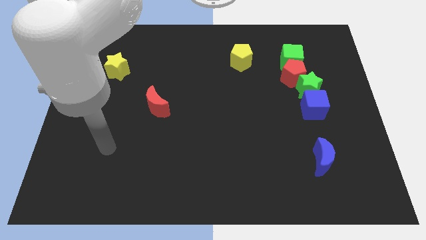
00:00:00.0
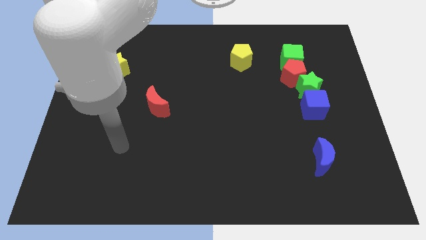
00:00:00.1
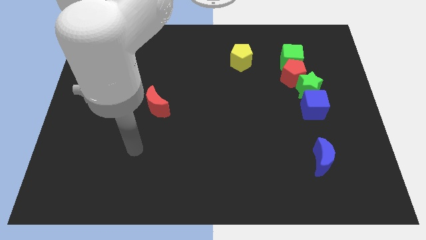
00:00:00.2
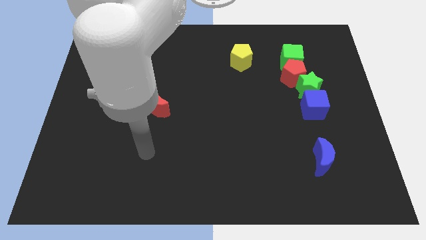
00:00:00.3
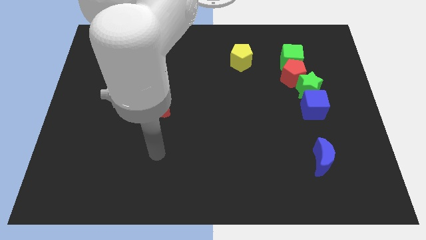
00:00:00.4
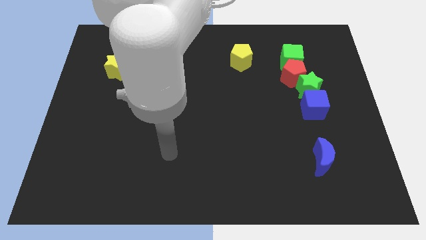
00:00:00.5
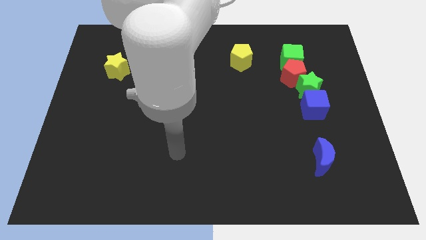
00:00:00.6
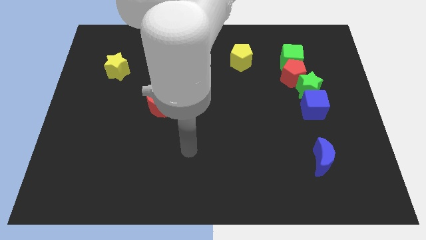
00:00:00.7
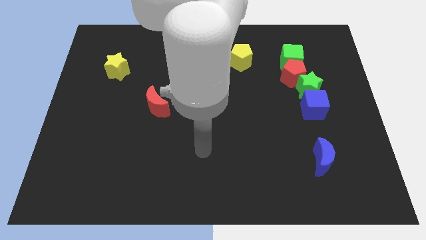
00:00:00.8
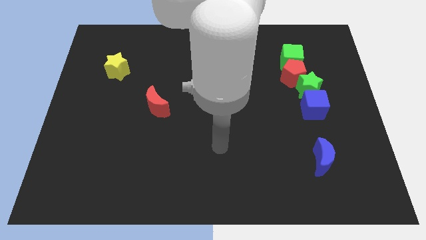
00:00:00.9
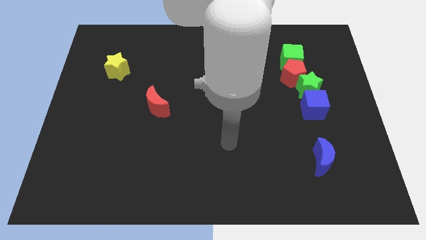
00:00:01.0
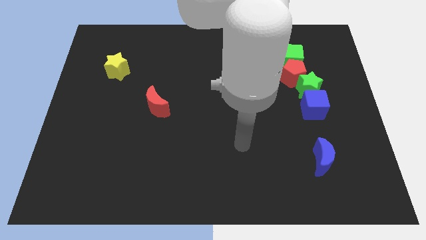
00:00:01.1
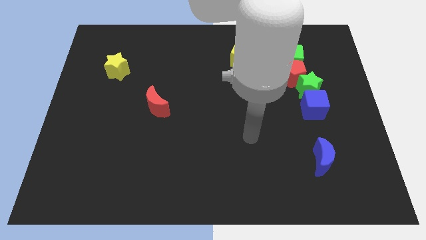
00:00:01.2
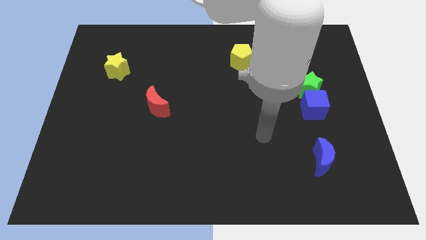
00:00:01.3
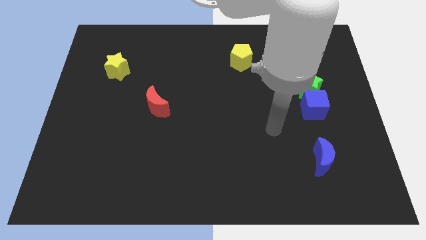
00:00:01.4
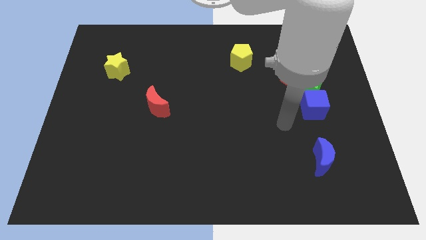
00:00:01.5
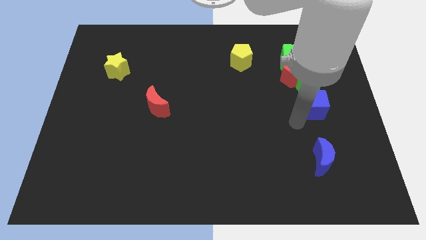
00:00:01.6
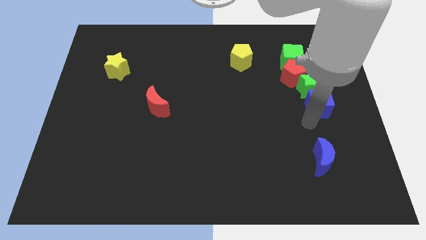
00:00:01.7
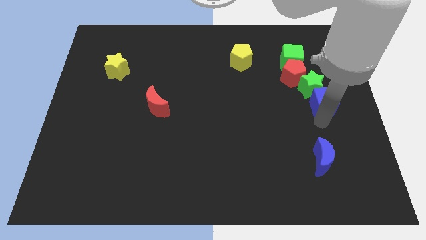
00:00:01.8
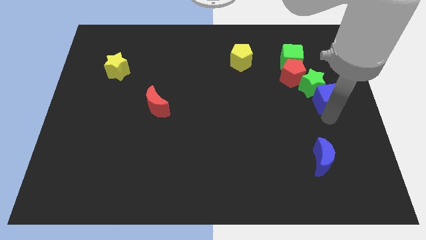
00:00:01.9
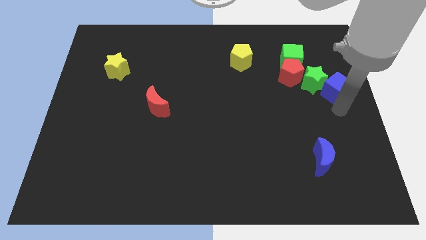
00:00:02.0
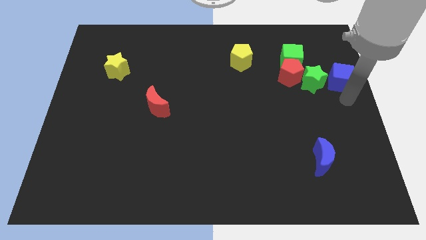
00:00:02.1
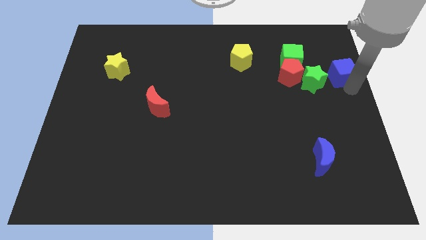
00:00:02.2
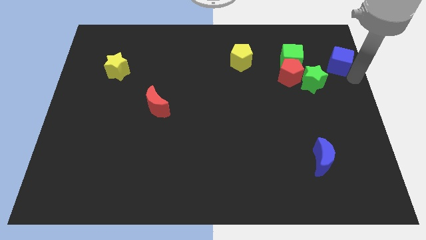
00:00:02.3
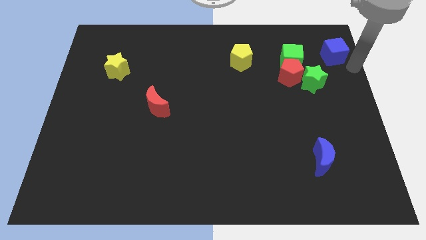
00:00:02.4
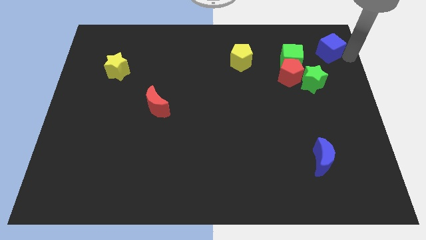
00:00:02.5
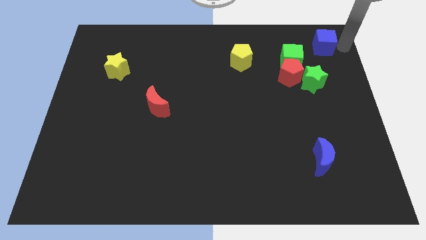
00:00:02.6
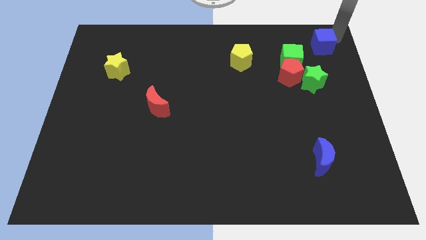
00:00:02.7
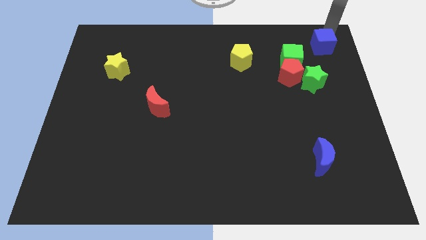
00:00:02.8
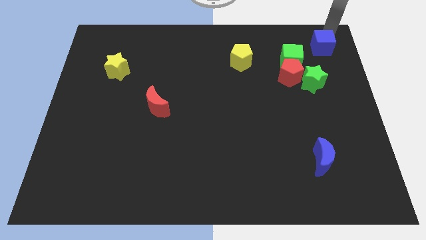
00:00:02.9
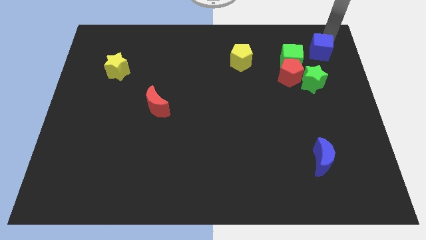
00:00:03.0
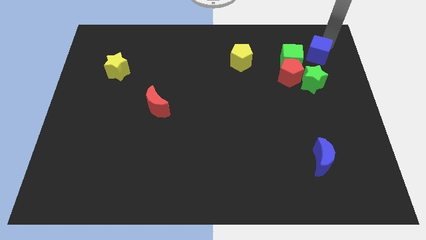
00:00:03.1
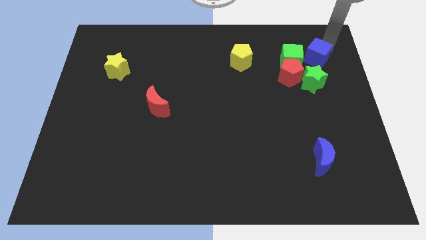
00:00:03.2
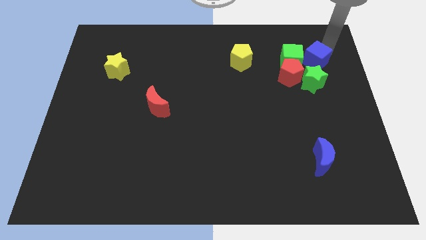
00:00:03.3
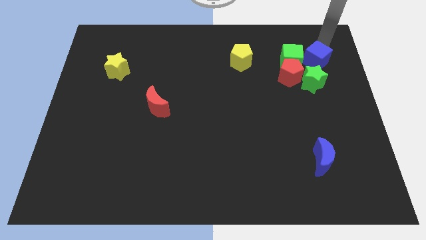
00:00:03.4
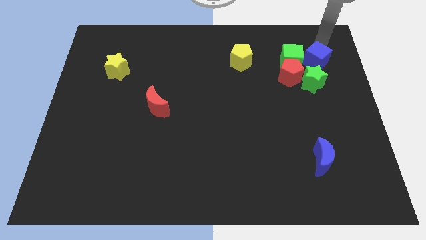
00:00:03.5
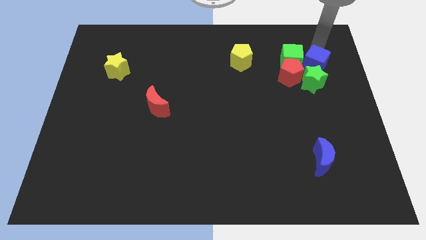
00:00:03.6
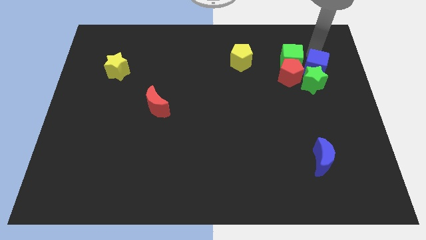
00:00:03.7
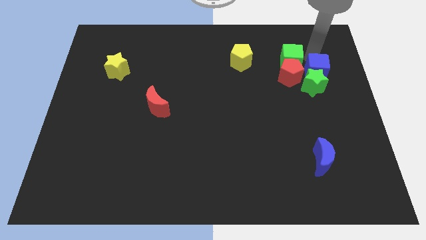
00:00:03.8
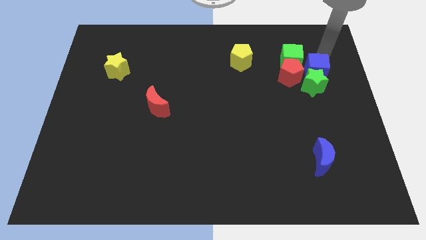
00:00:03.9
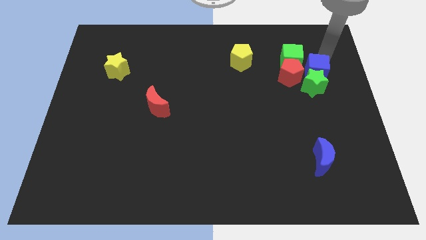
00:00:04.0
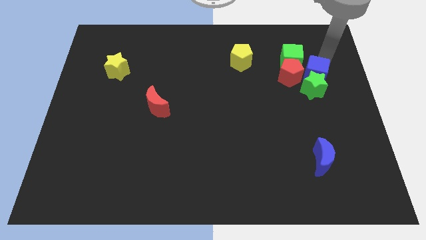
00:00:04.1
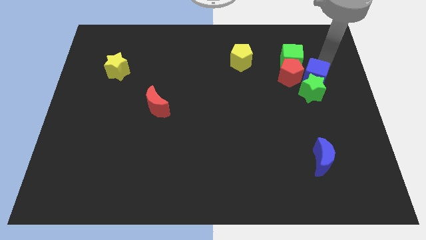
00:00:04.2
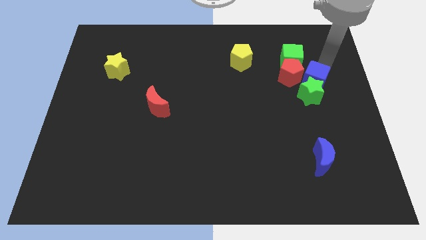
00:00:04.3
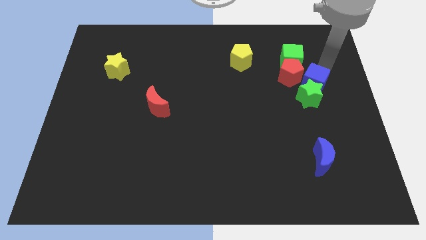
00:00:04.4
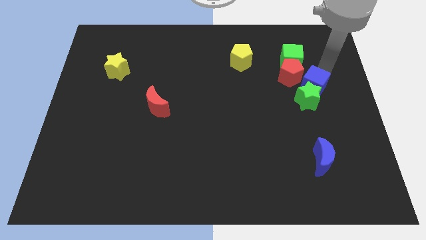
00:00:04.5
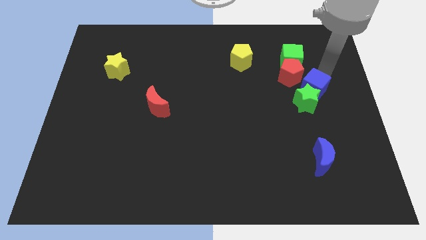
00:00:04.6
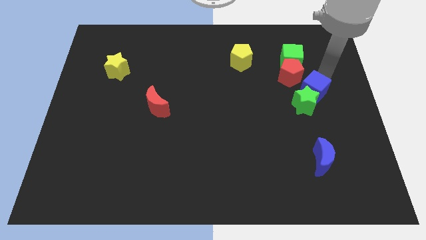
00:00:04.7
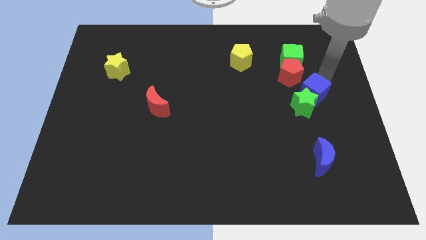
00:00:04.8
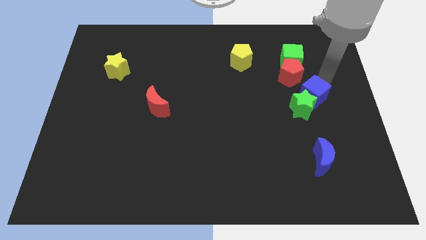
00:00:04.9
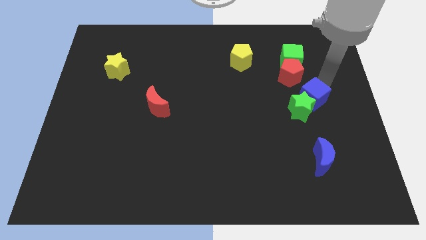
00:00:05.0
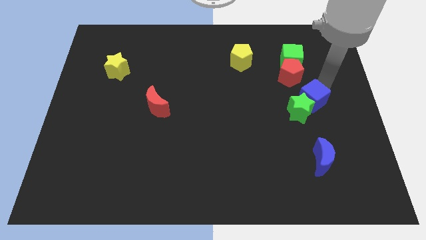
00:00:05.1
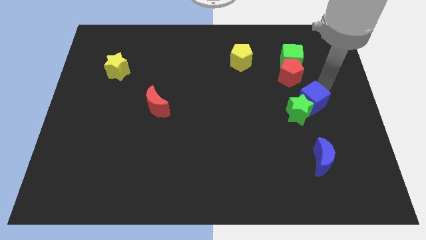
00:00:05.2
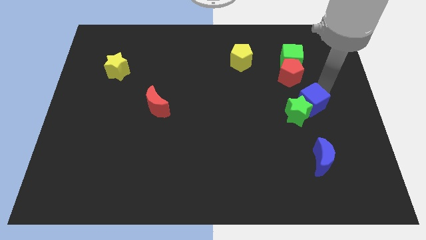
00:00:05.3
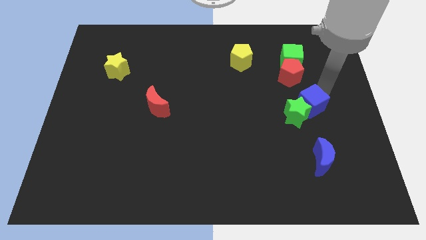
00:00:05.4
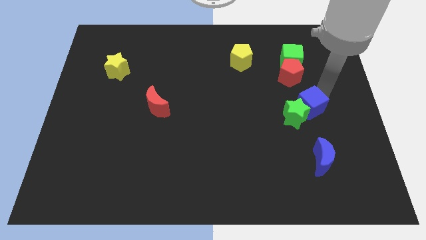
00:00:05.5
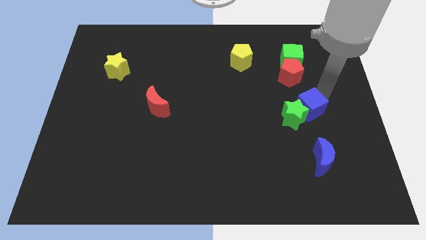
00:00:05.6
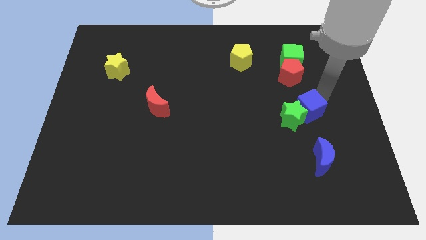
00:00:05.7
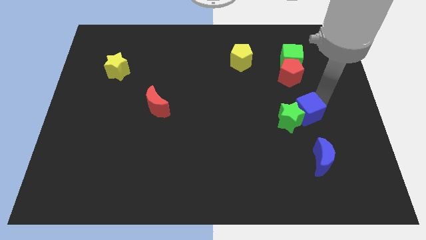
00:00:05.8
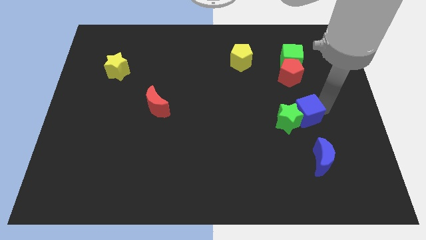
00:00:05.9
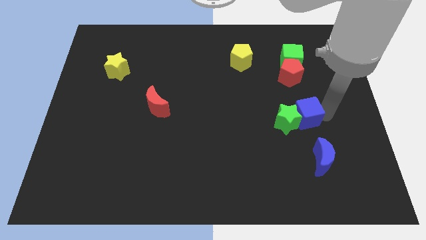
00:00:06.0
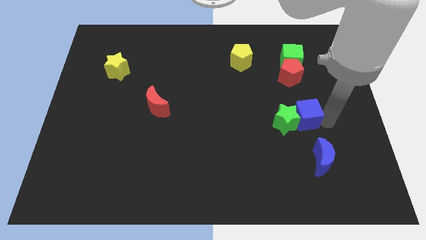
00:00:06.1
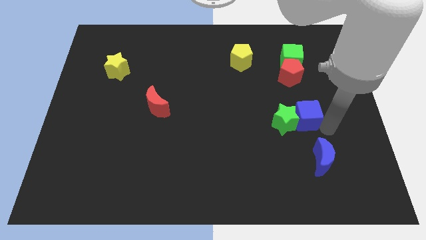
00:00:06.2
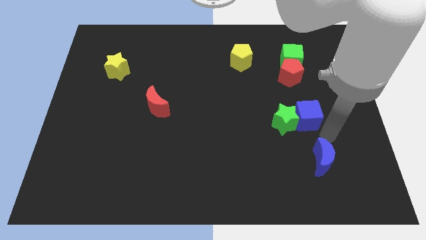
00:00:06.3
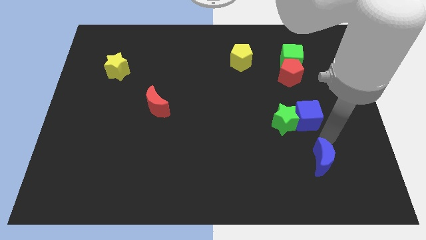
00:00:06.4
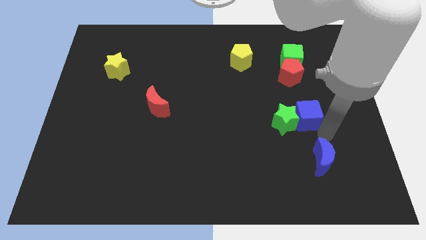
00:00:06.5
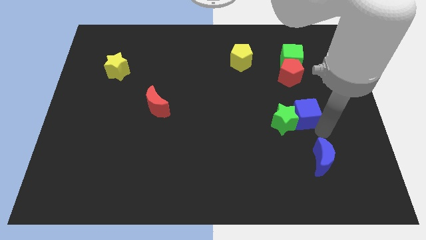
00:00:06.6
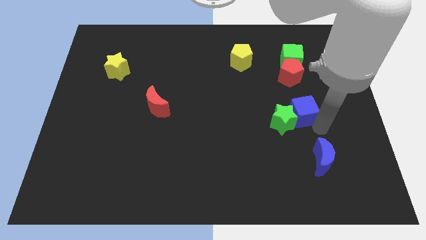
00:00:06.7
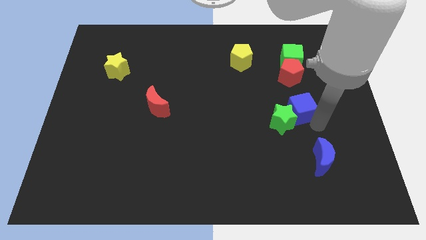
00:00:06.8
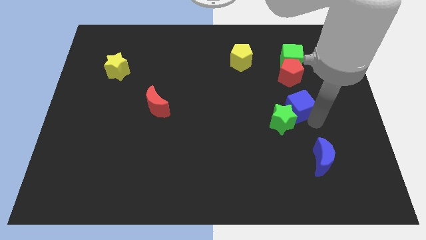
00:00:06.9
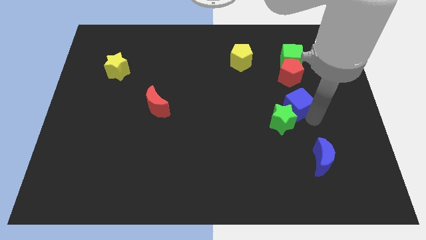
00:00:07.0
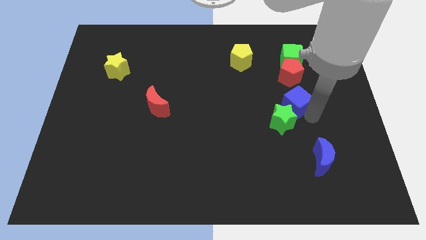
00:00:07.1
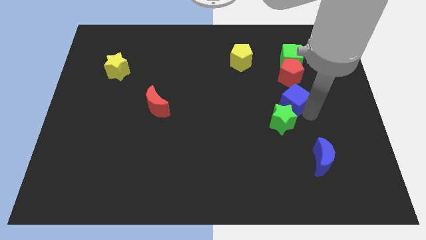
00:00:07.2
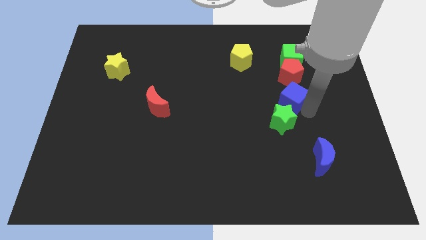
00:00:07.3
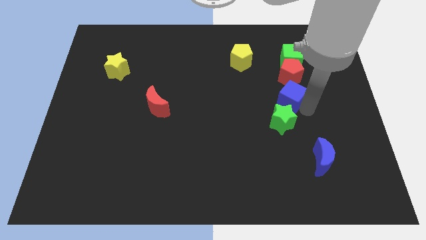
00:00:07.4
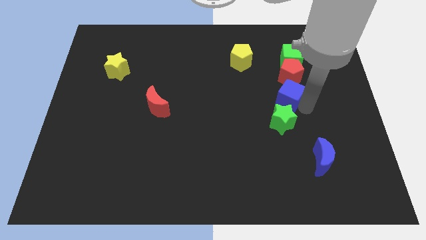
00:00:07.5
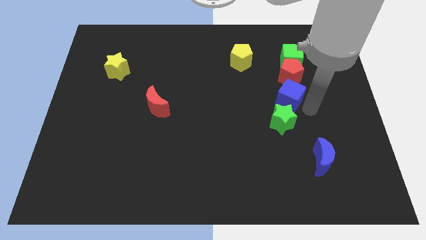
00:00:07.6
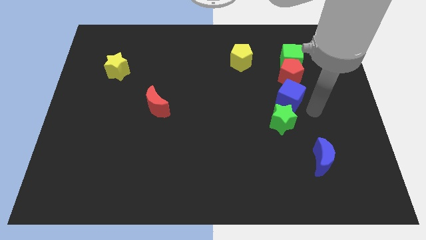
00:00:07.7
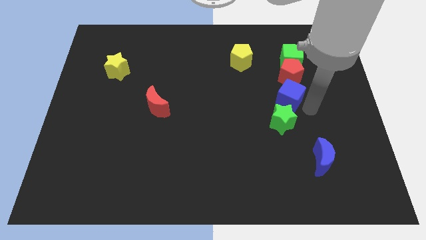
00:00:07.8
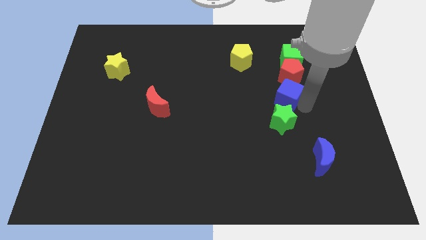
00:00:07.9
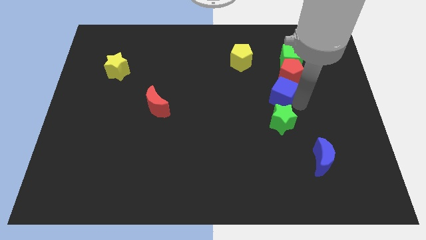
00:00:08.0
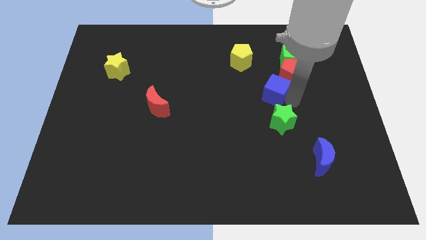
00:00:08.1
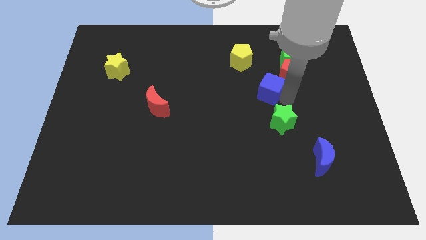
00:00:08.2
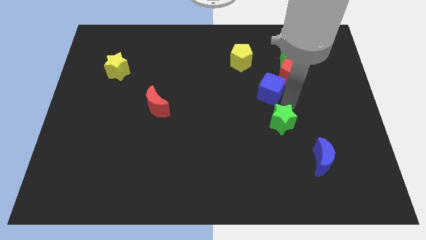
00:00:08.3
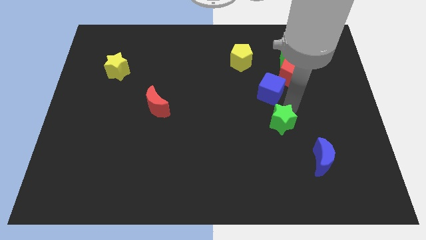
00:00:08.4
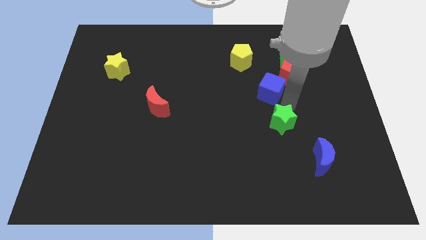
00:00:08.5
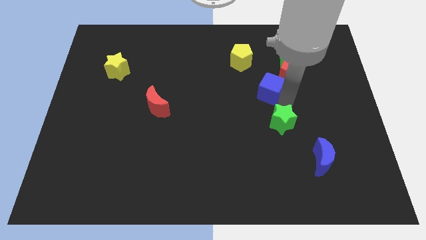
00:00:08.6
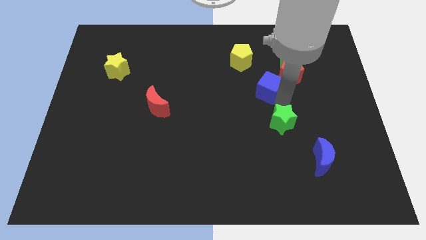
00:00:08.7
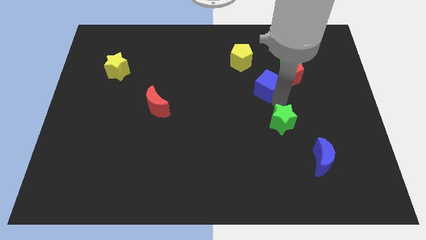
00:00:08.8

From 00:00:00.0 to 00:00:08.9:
push the blue cube just left of the red pentagon
